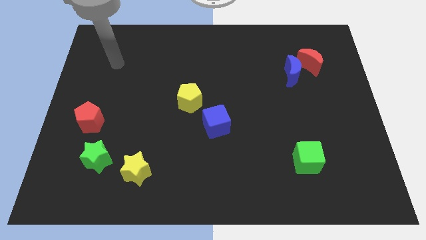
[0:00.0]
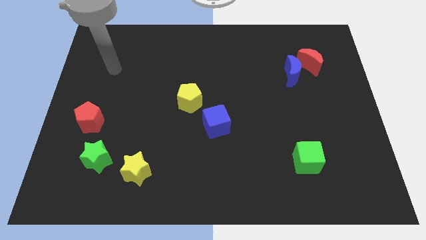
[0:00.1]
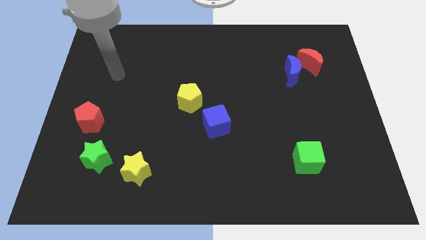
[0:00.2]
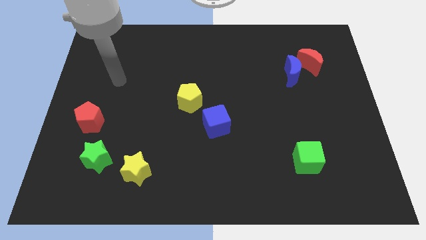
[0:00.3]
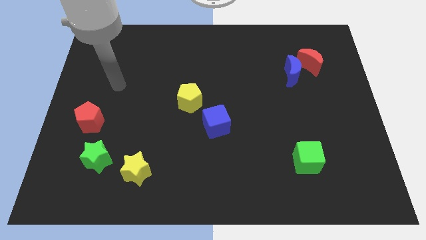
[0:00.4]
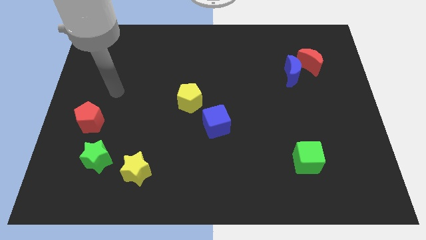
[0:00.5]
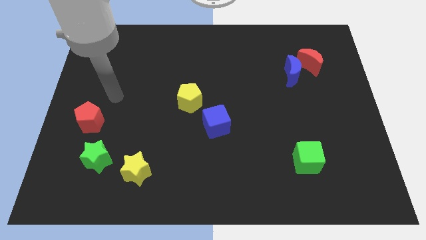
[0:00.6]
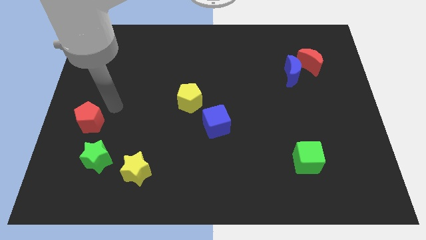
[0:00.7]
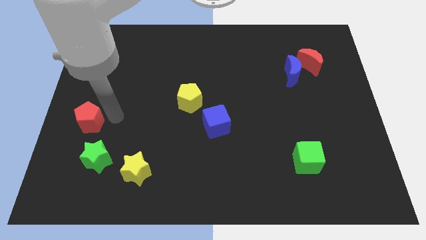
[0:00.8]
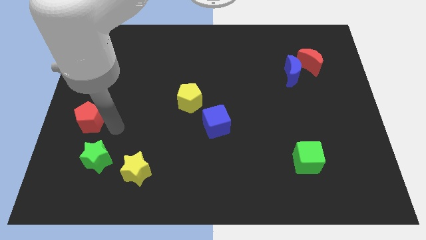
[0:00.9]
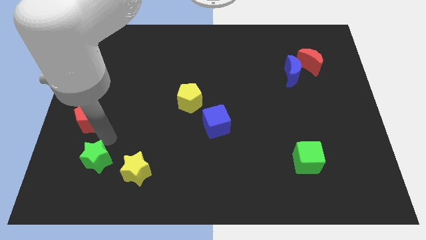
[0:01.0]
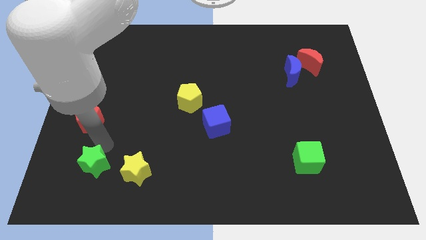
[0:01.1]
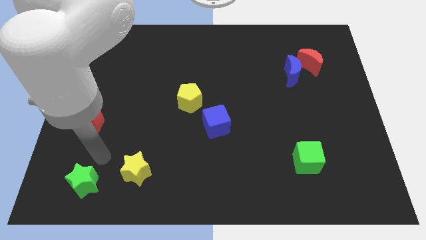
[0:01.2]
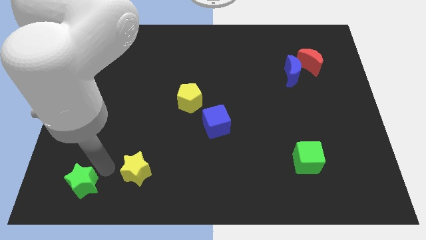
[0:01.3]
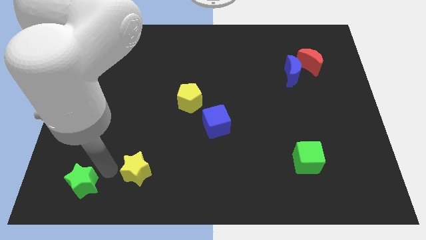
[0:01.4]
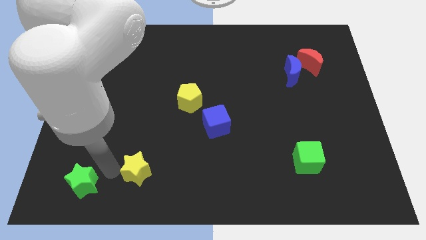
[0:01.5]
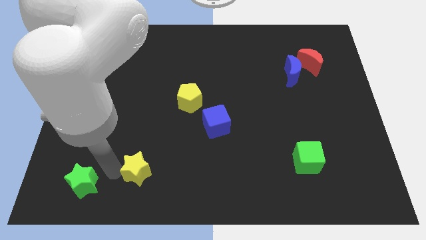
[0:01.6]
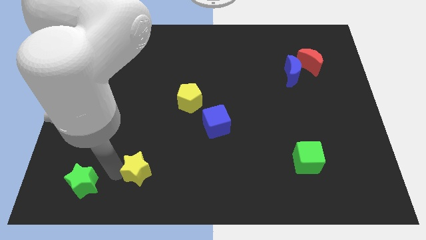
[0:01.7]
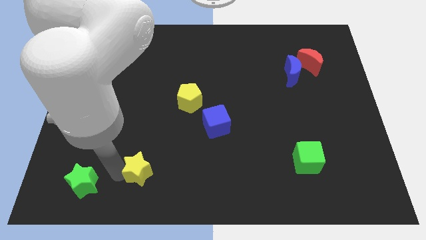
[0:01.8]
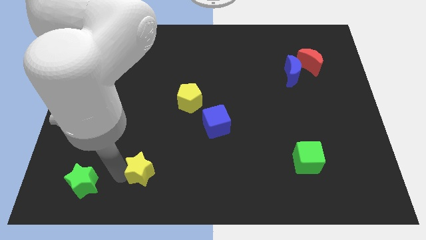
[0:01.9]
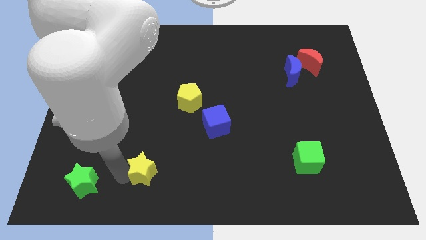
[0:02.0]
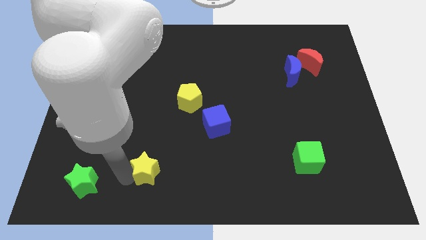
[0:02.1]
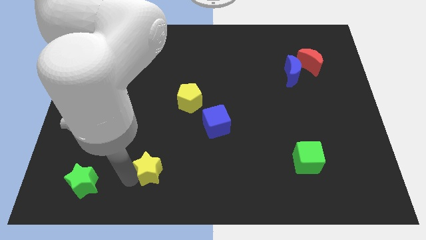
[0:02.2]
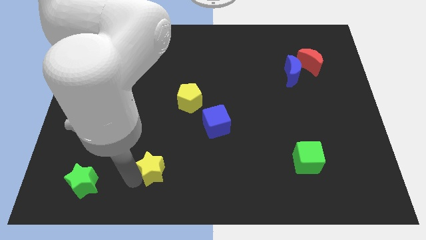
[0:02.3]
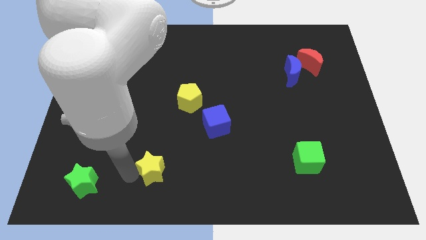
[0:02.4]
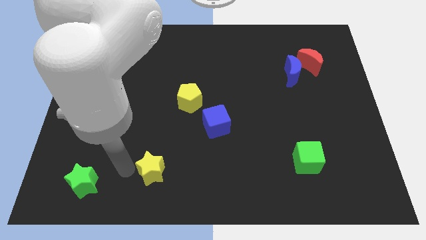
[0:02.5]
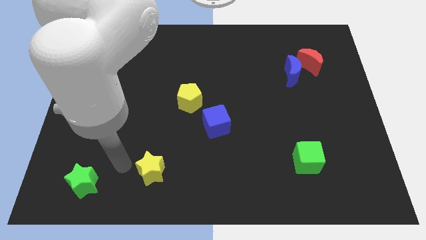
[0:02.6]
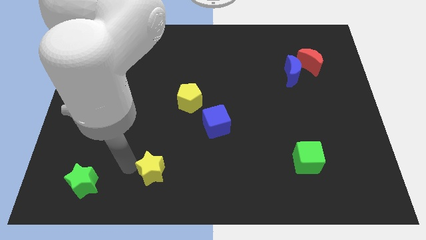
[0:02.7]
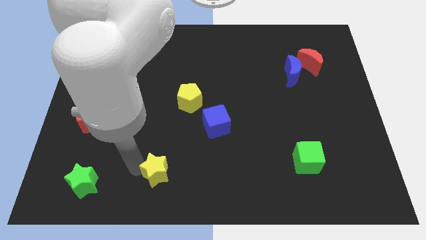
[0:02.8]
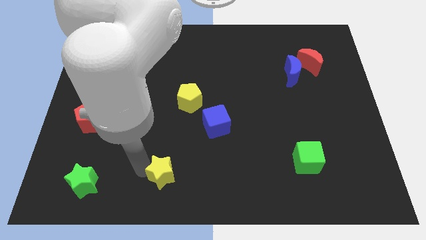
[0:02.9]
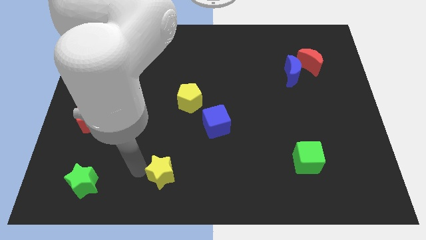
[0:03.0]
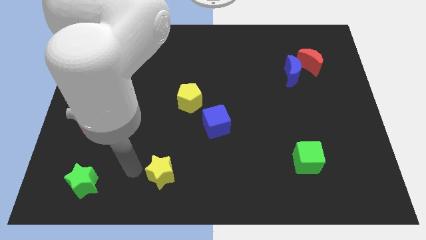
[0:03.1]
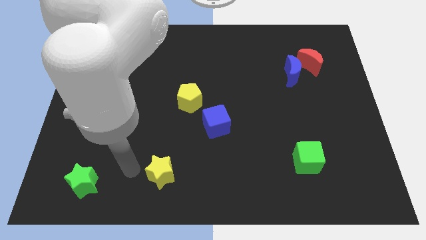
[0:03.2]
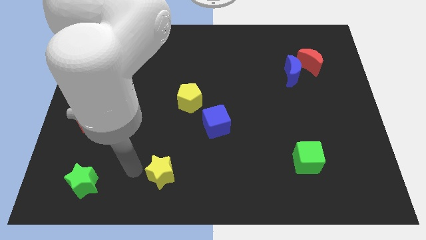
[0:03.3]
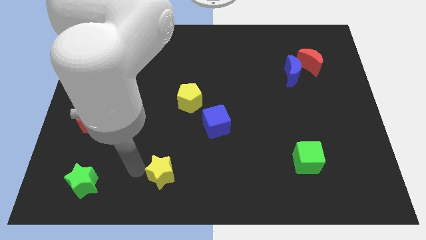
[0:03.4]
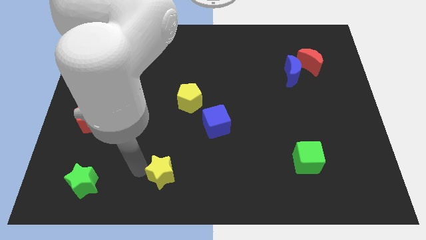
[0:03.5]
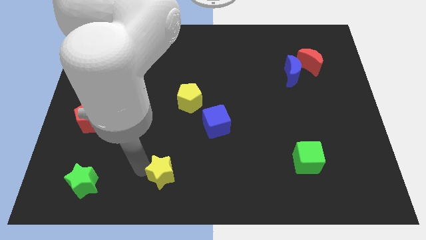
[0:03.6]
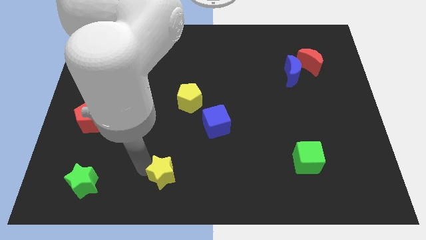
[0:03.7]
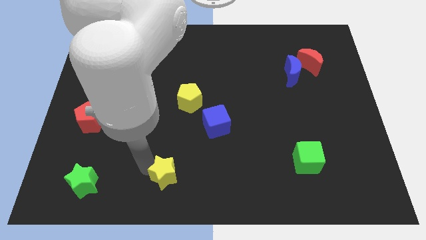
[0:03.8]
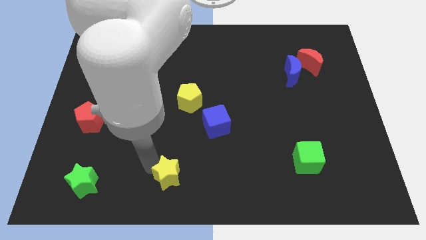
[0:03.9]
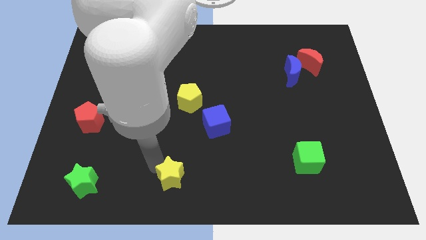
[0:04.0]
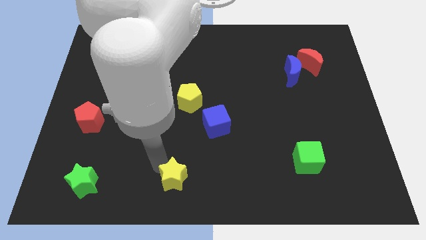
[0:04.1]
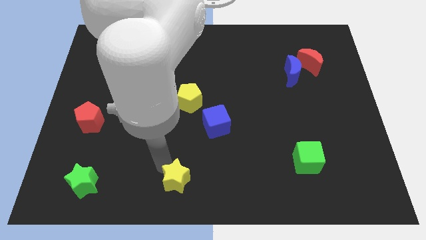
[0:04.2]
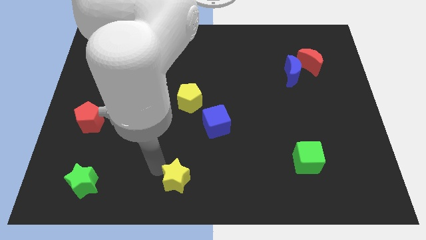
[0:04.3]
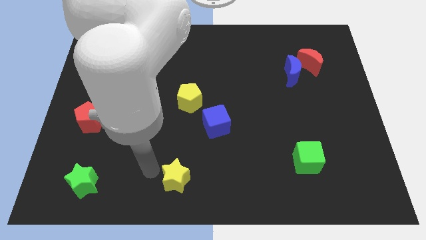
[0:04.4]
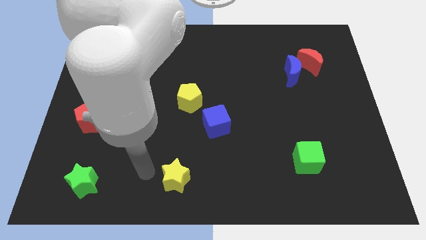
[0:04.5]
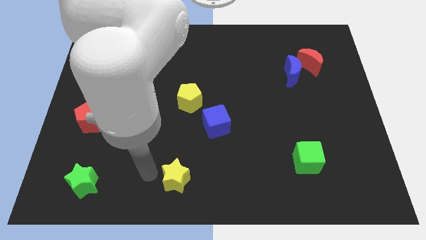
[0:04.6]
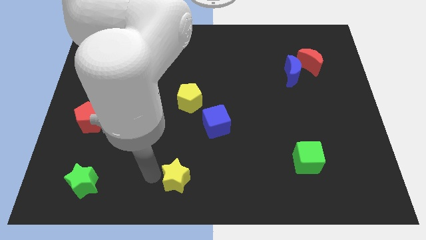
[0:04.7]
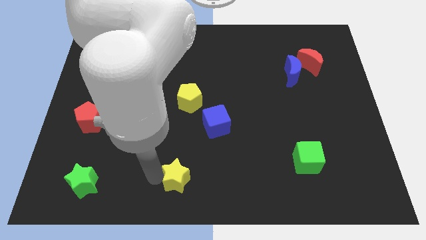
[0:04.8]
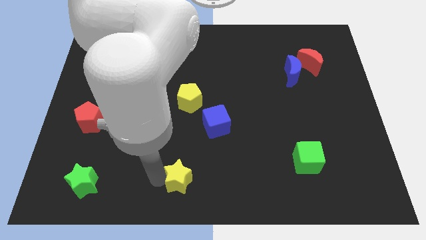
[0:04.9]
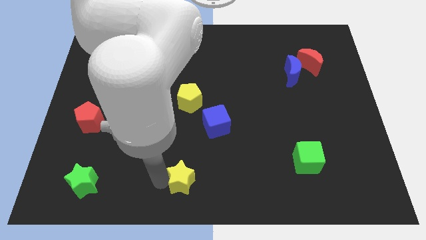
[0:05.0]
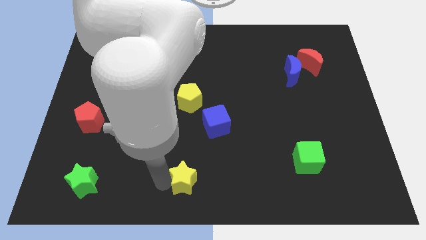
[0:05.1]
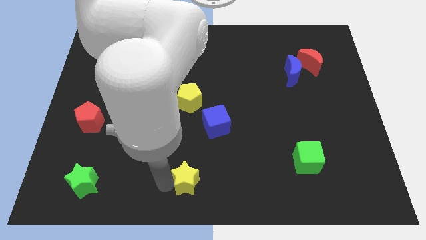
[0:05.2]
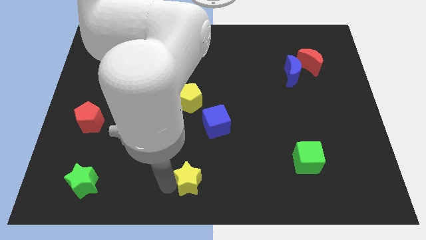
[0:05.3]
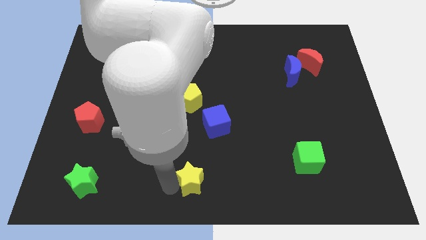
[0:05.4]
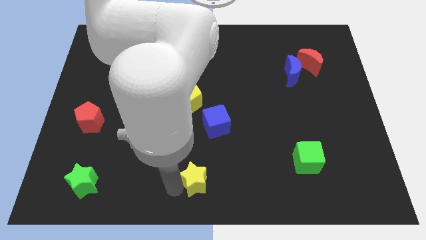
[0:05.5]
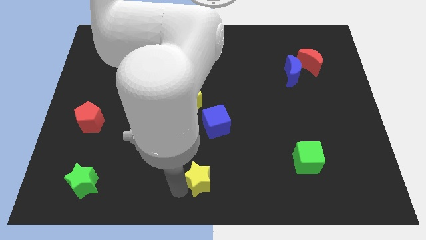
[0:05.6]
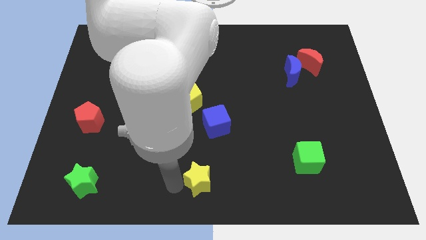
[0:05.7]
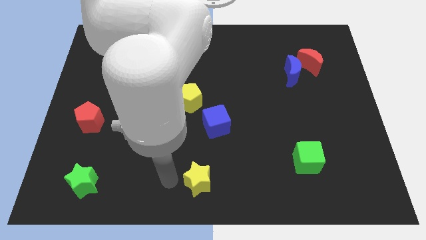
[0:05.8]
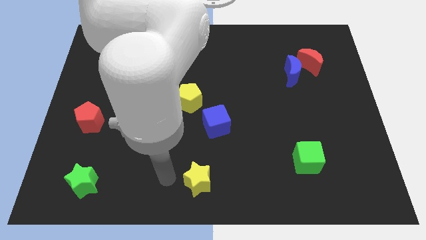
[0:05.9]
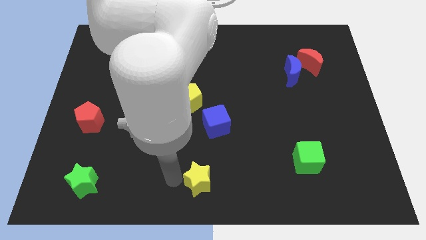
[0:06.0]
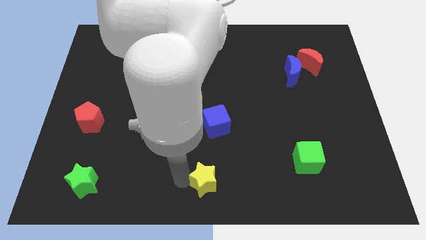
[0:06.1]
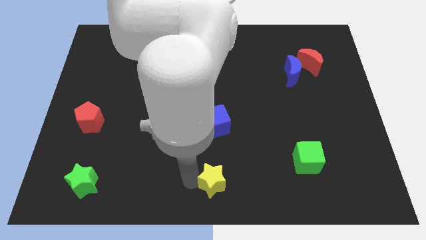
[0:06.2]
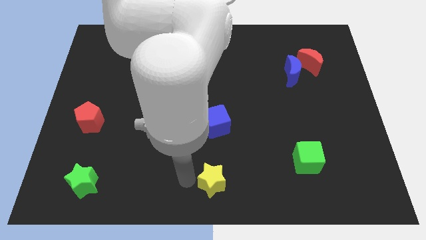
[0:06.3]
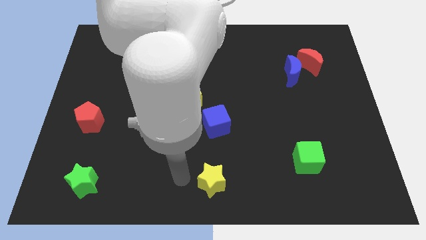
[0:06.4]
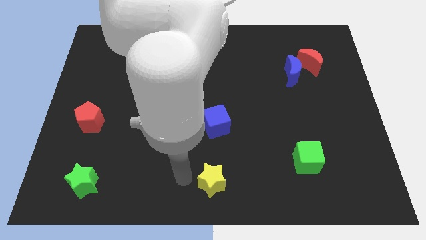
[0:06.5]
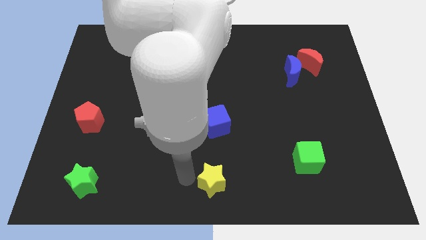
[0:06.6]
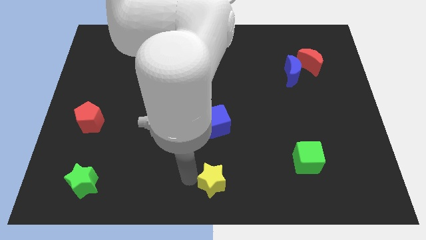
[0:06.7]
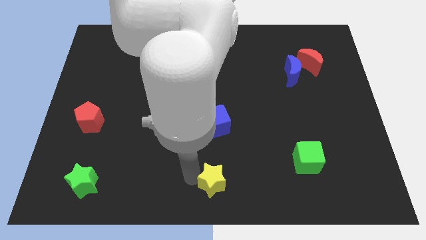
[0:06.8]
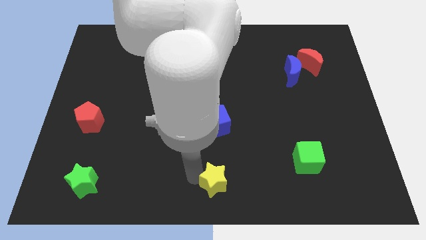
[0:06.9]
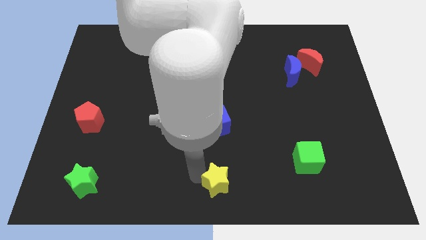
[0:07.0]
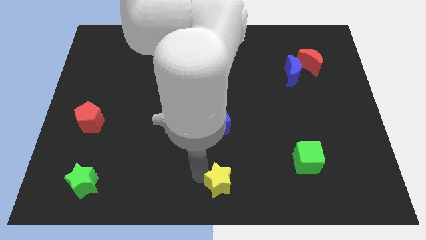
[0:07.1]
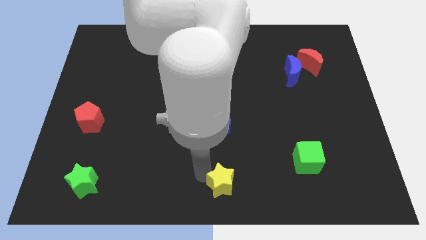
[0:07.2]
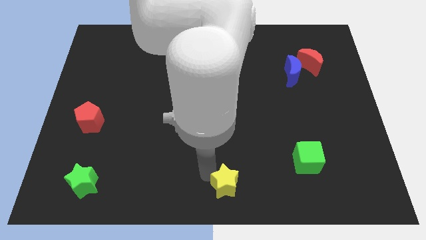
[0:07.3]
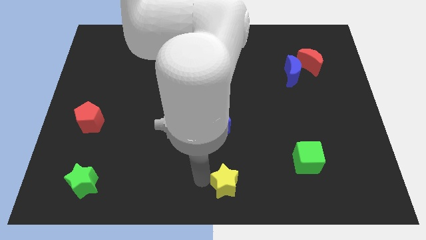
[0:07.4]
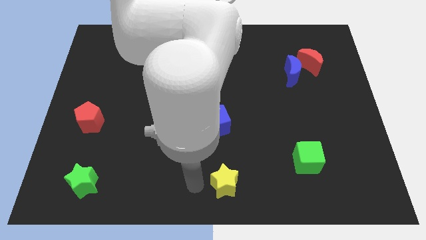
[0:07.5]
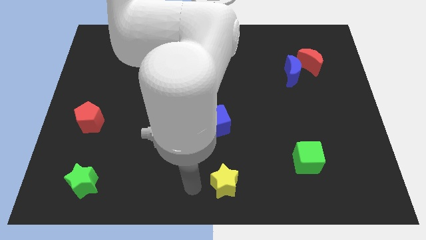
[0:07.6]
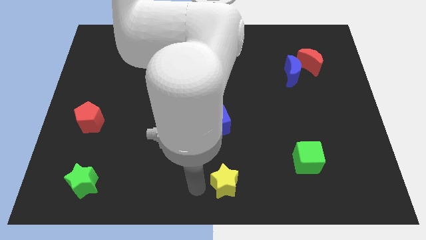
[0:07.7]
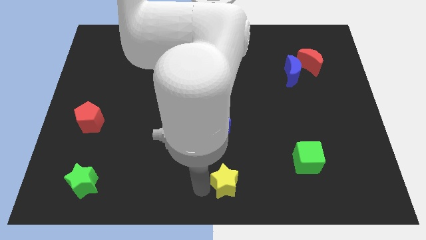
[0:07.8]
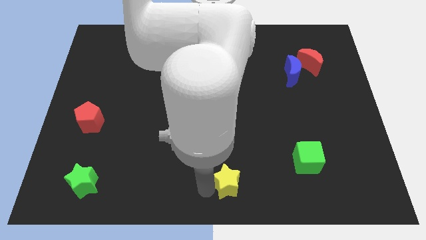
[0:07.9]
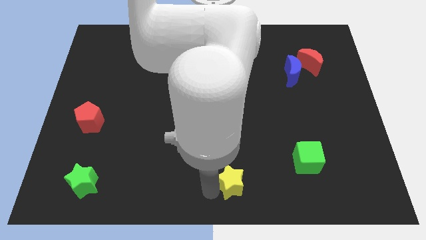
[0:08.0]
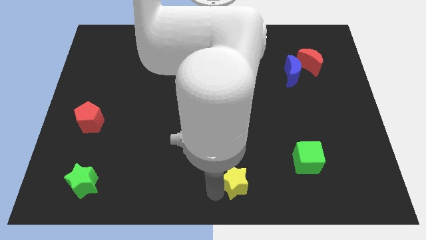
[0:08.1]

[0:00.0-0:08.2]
slide the yellow star to the right
